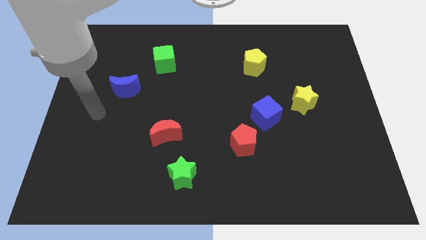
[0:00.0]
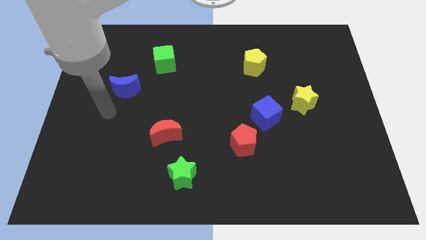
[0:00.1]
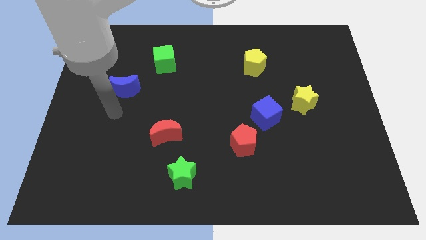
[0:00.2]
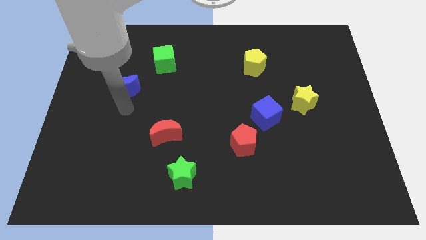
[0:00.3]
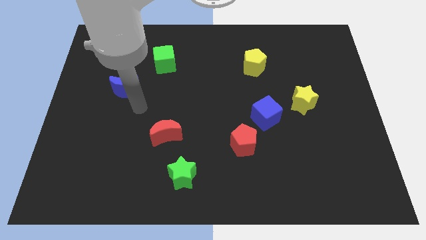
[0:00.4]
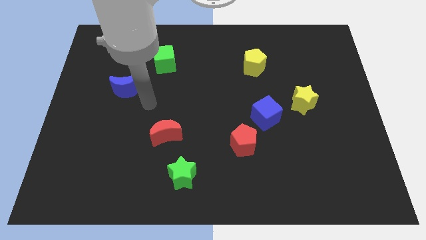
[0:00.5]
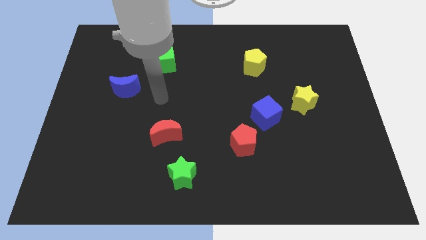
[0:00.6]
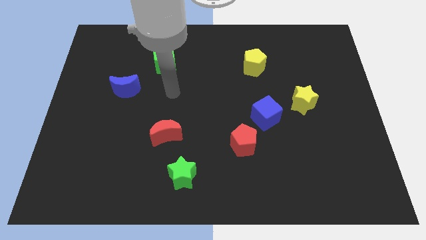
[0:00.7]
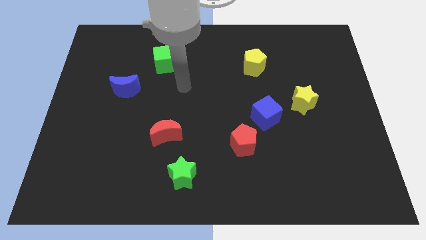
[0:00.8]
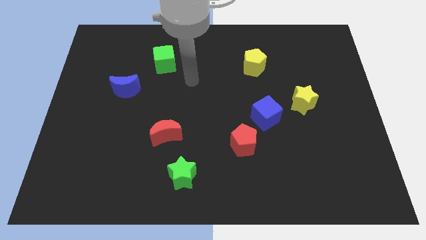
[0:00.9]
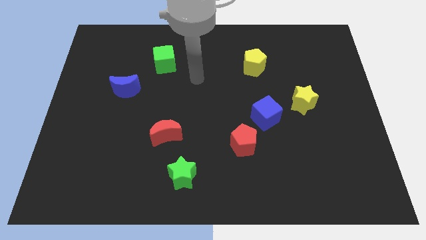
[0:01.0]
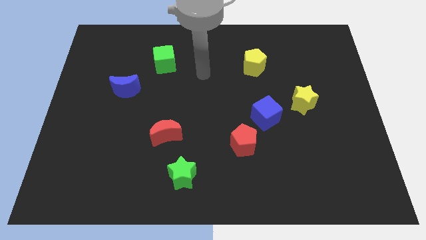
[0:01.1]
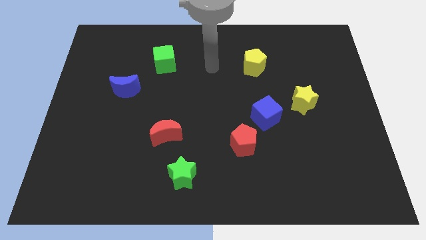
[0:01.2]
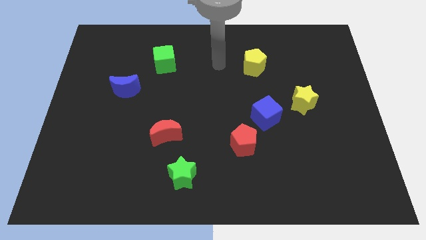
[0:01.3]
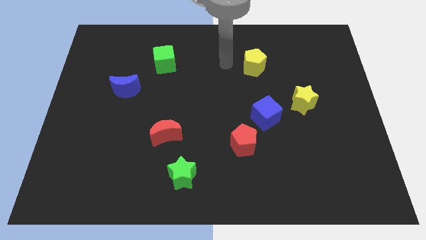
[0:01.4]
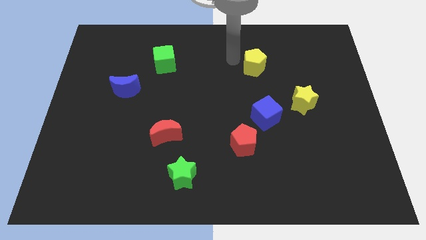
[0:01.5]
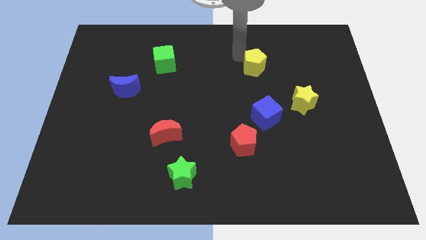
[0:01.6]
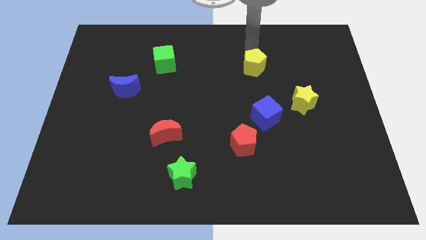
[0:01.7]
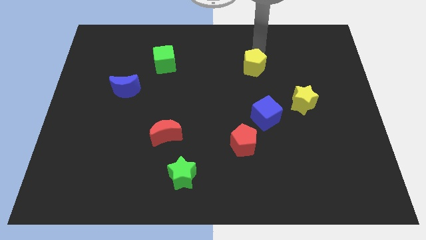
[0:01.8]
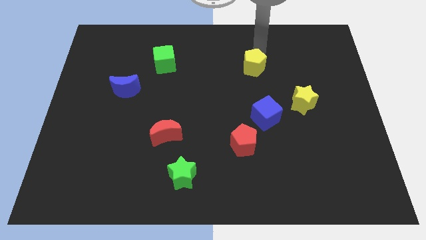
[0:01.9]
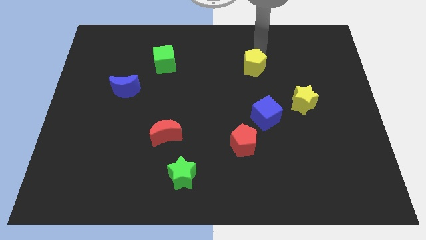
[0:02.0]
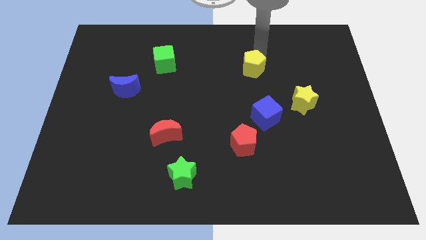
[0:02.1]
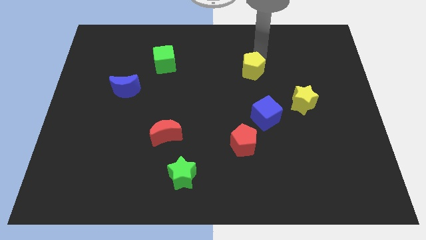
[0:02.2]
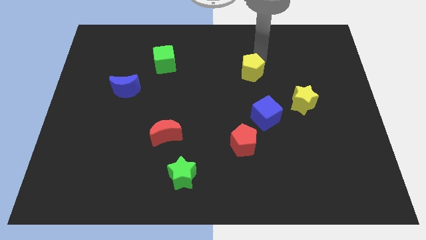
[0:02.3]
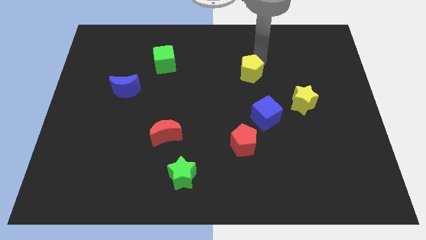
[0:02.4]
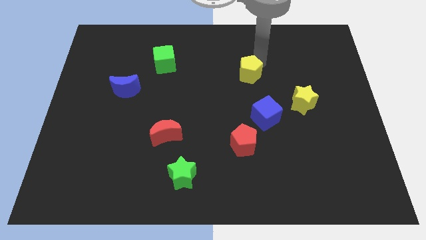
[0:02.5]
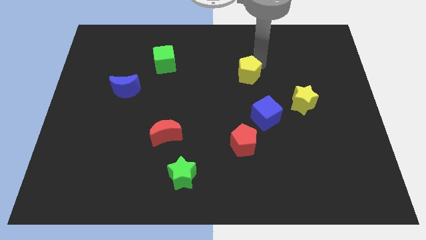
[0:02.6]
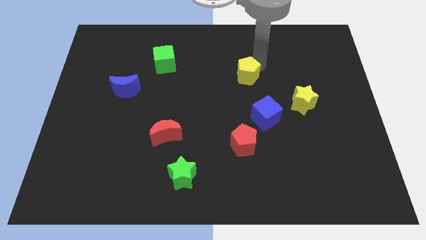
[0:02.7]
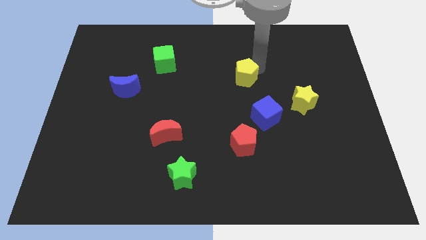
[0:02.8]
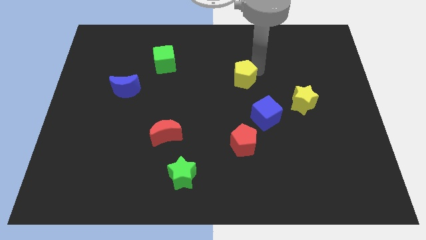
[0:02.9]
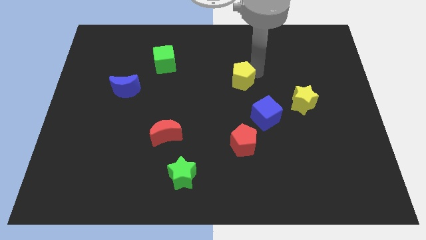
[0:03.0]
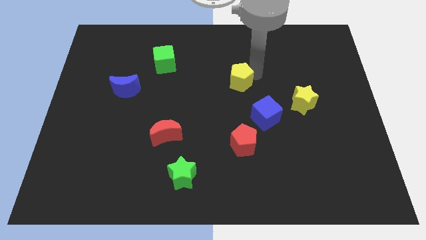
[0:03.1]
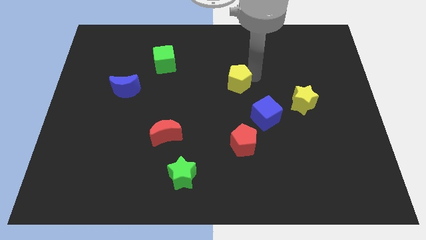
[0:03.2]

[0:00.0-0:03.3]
move the yellow pentagon diagonally up and to the left of the blue cube

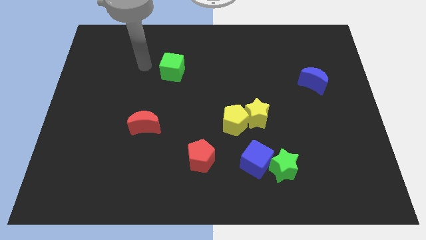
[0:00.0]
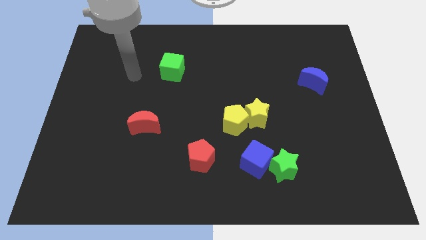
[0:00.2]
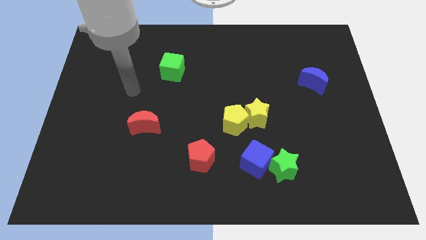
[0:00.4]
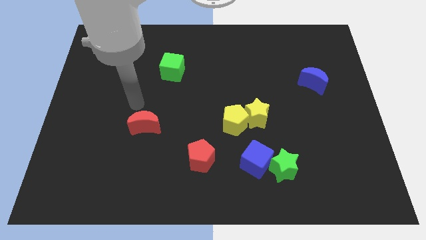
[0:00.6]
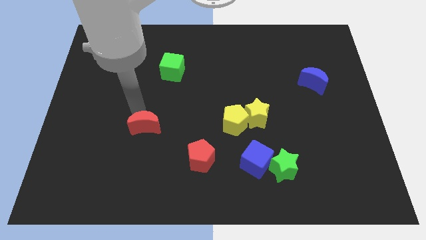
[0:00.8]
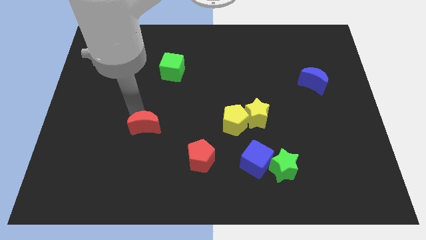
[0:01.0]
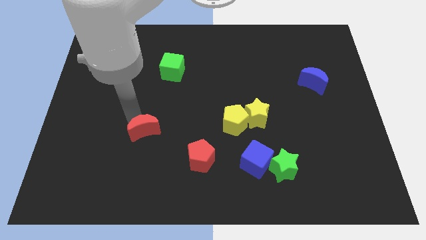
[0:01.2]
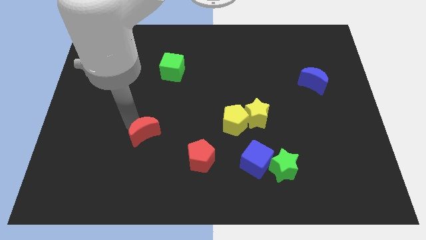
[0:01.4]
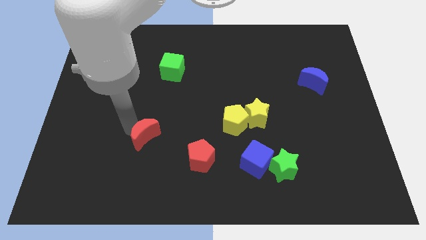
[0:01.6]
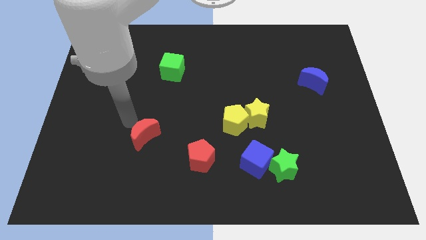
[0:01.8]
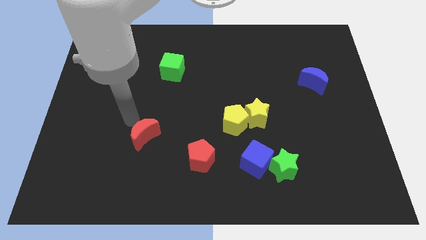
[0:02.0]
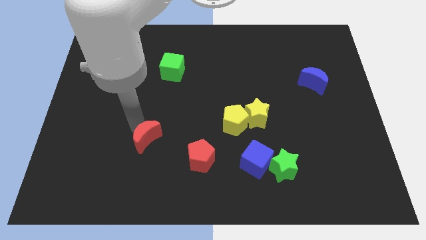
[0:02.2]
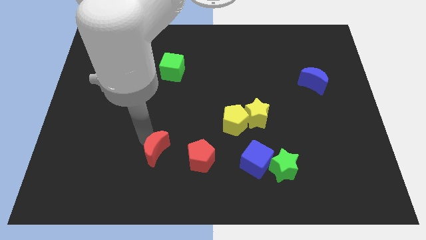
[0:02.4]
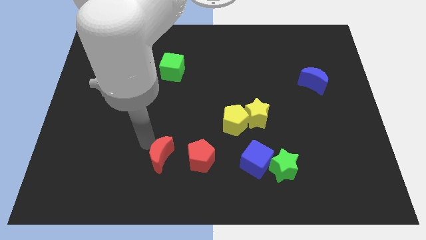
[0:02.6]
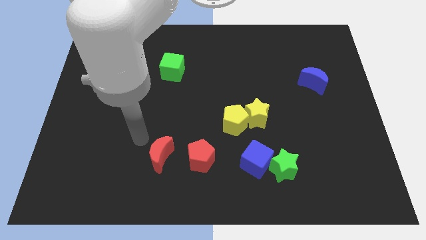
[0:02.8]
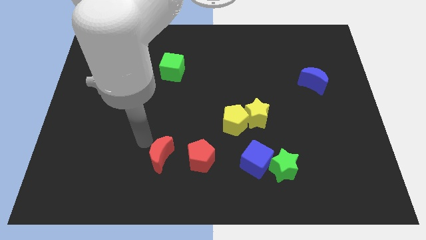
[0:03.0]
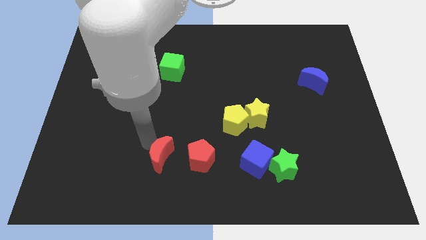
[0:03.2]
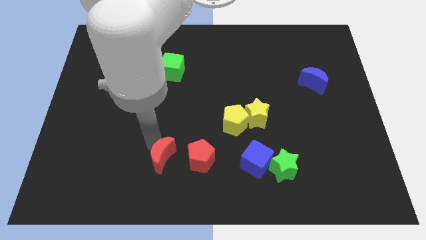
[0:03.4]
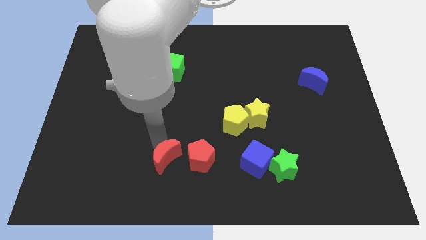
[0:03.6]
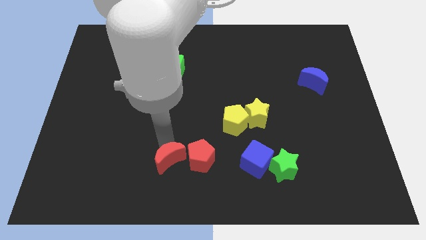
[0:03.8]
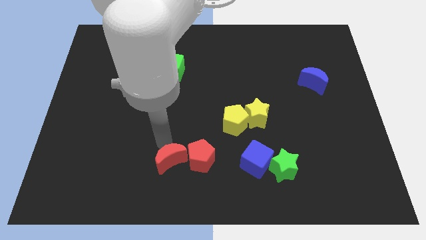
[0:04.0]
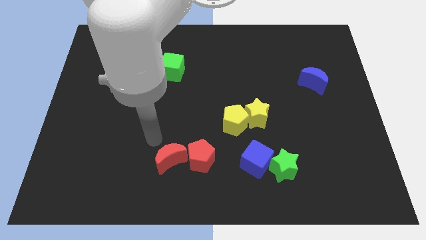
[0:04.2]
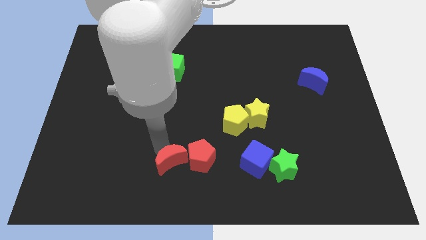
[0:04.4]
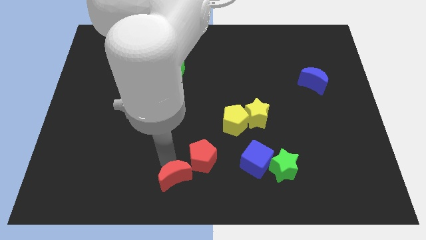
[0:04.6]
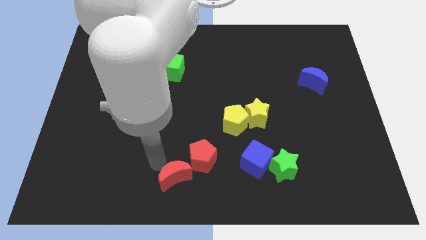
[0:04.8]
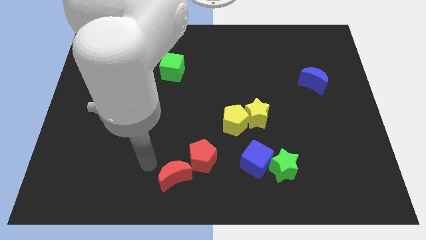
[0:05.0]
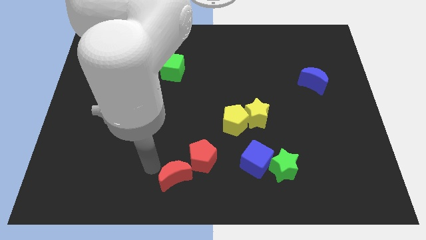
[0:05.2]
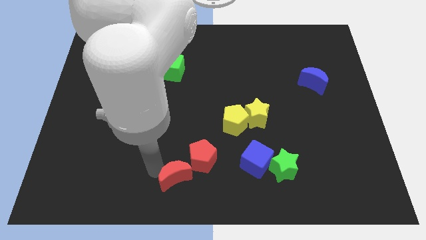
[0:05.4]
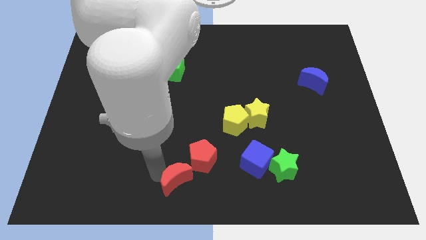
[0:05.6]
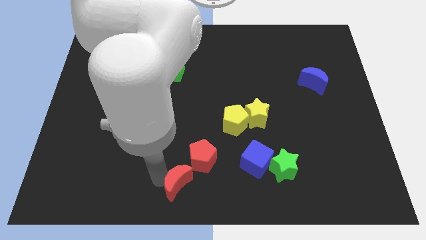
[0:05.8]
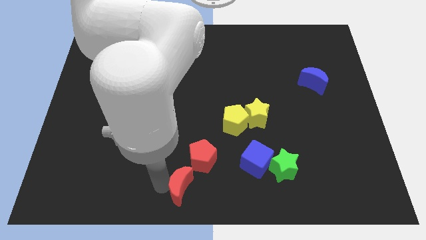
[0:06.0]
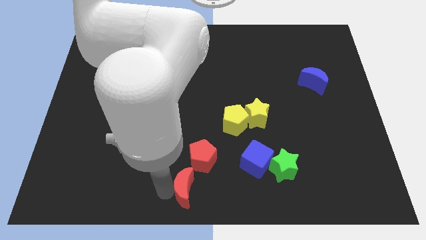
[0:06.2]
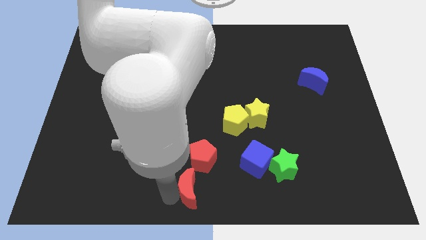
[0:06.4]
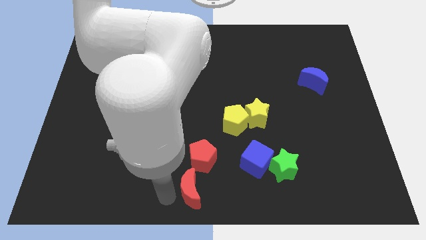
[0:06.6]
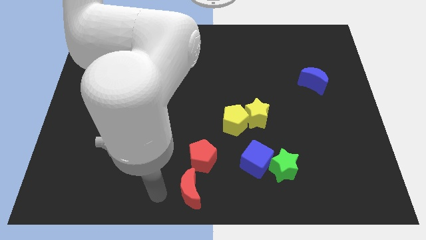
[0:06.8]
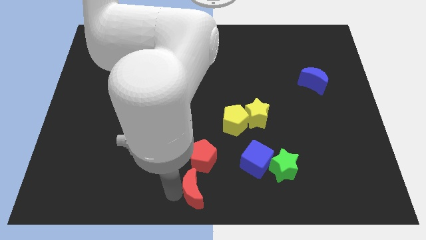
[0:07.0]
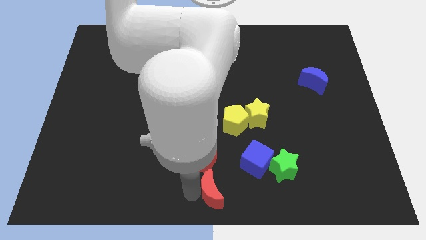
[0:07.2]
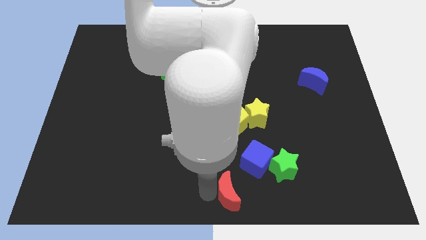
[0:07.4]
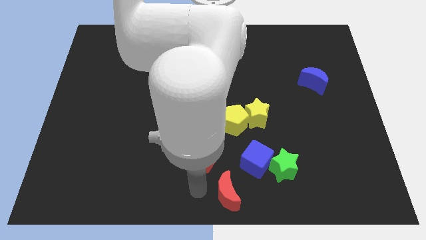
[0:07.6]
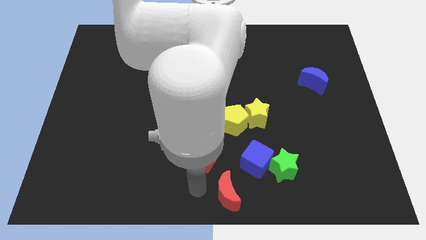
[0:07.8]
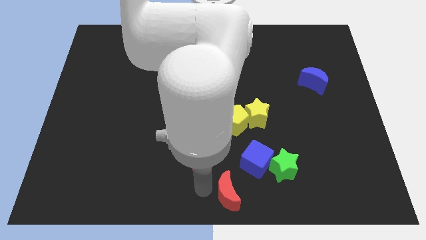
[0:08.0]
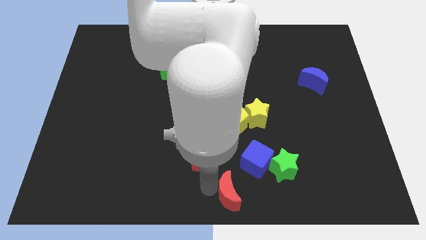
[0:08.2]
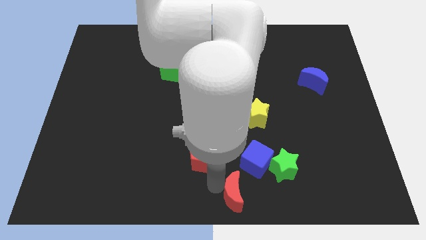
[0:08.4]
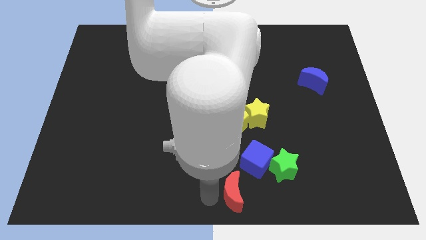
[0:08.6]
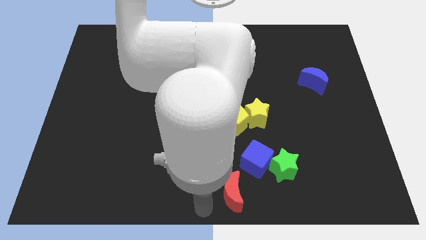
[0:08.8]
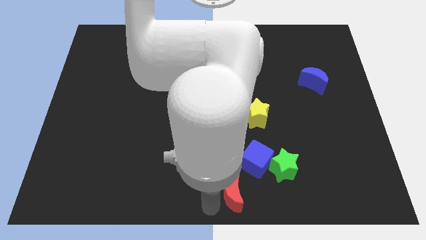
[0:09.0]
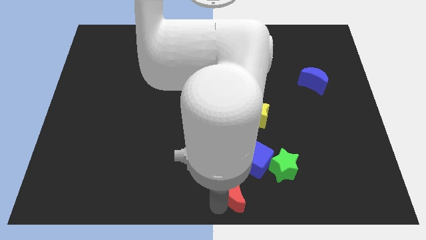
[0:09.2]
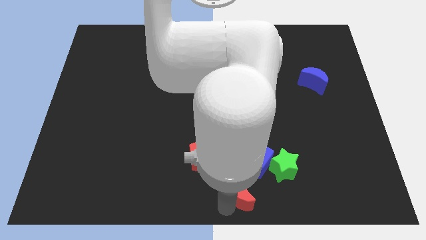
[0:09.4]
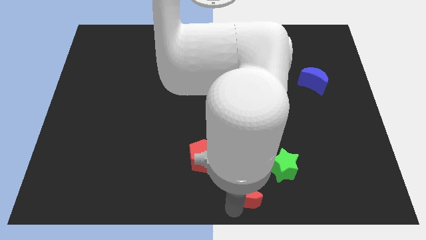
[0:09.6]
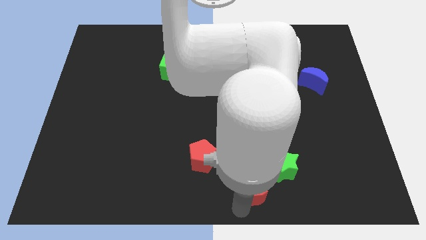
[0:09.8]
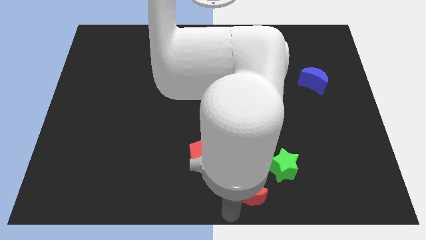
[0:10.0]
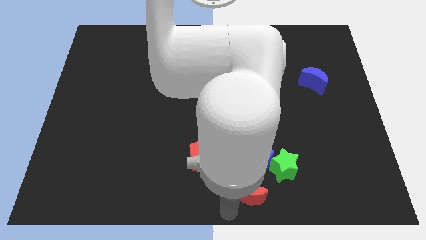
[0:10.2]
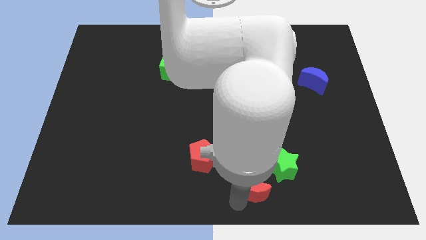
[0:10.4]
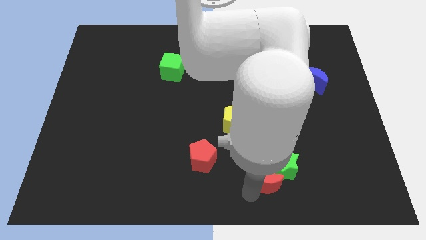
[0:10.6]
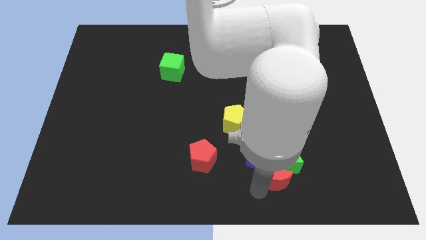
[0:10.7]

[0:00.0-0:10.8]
move the red moon below the yellow star
